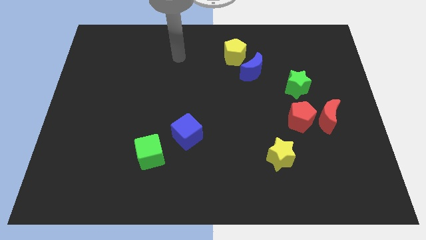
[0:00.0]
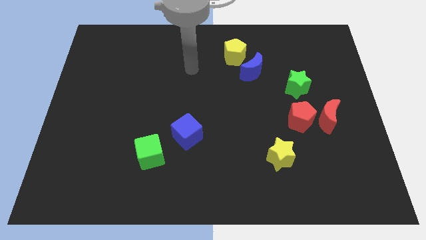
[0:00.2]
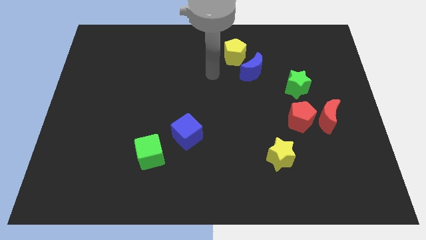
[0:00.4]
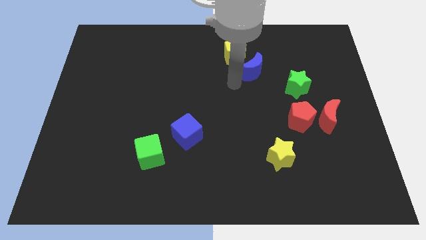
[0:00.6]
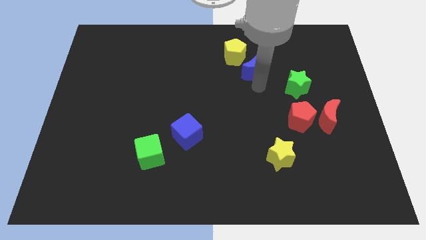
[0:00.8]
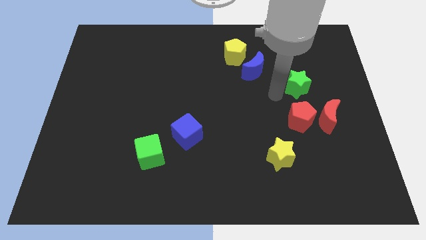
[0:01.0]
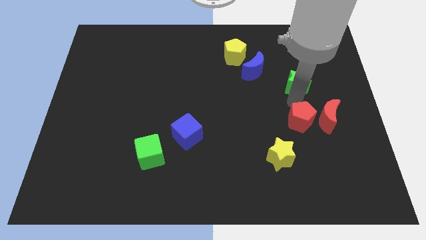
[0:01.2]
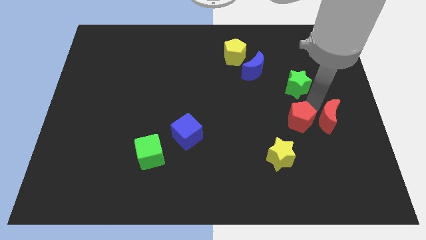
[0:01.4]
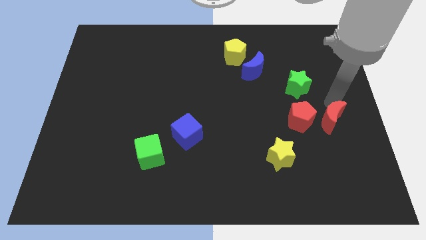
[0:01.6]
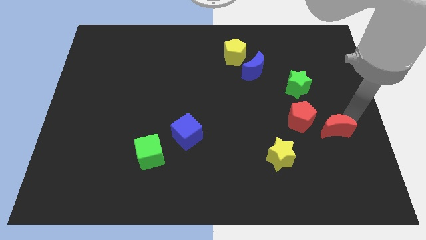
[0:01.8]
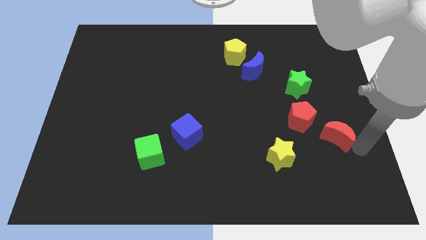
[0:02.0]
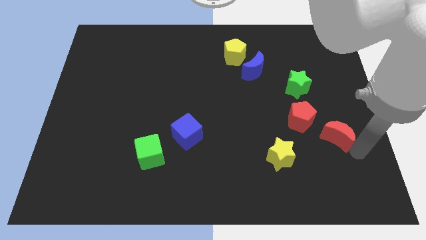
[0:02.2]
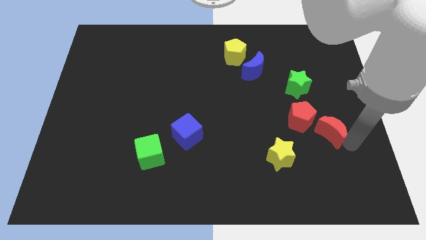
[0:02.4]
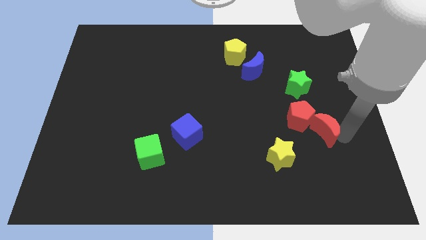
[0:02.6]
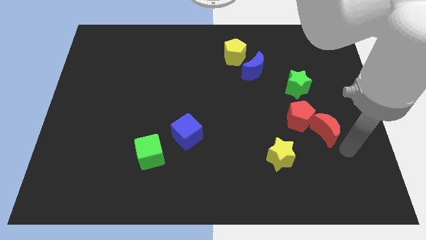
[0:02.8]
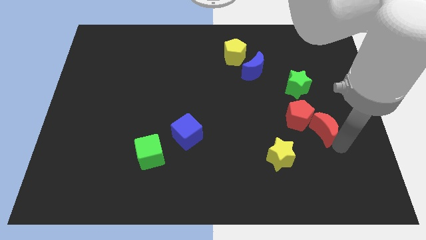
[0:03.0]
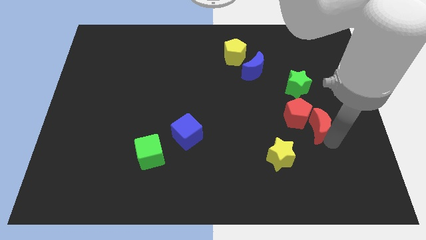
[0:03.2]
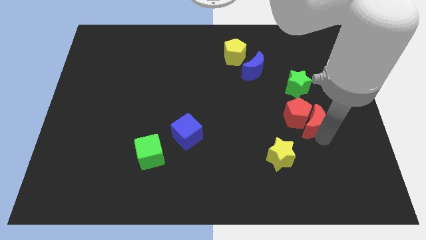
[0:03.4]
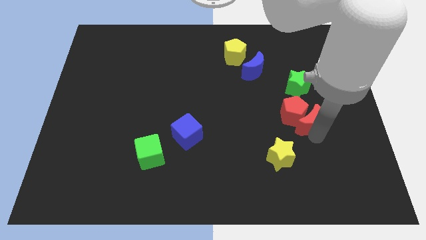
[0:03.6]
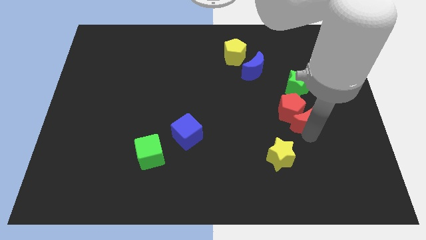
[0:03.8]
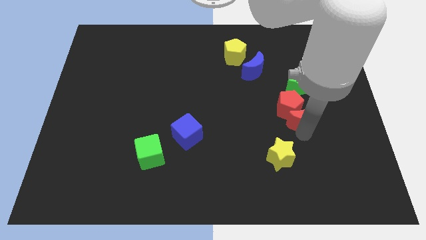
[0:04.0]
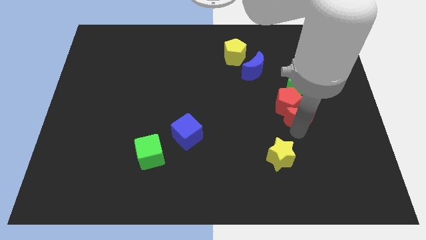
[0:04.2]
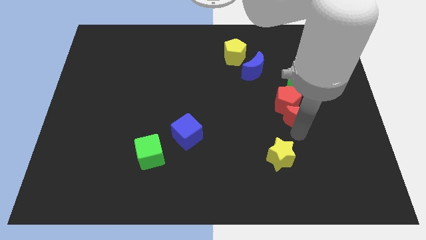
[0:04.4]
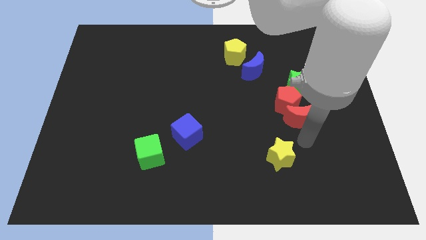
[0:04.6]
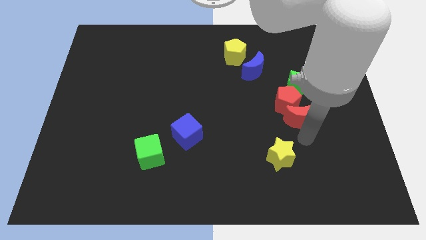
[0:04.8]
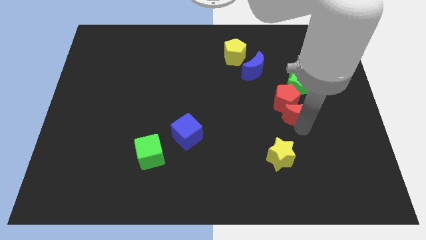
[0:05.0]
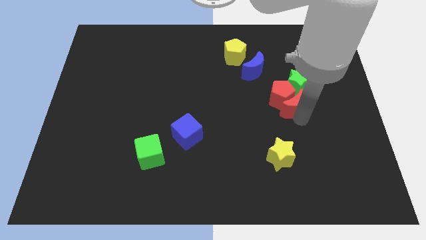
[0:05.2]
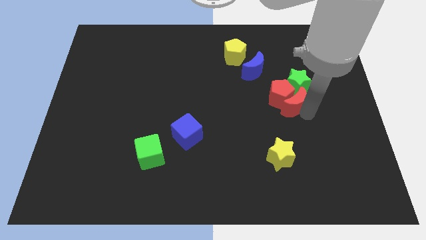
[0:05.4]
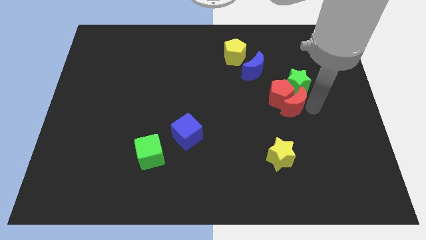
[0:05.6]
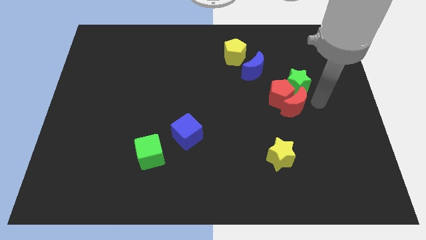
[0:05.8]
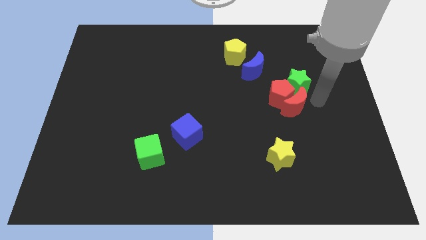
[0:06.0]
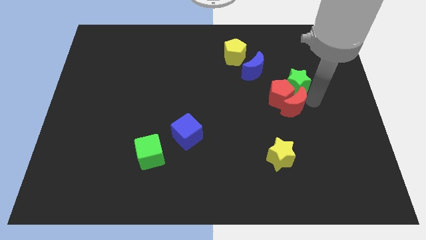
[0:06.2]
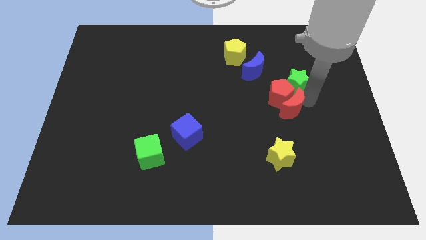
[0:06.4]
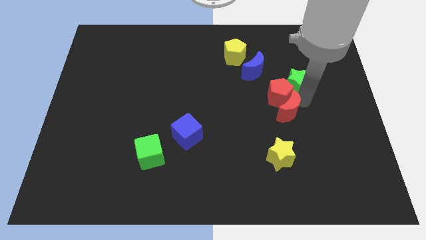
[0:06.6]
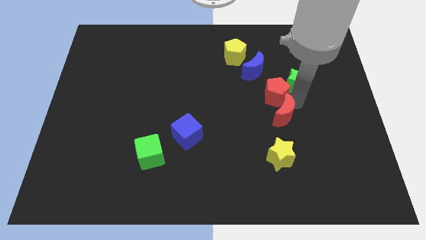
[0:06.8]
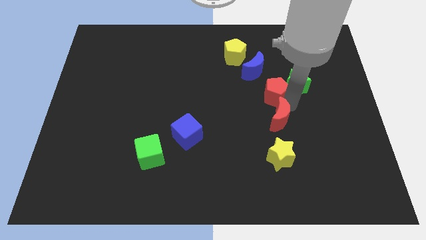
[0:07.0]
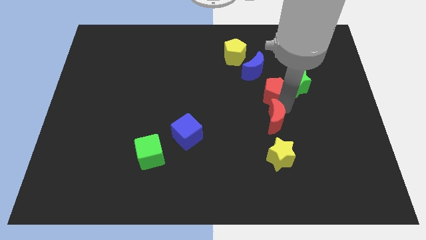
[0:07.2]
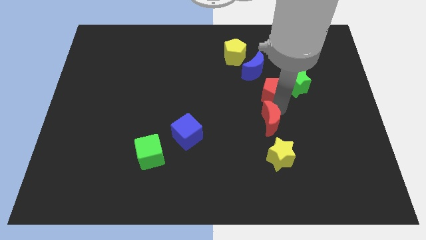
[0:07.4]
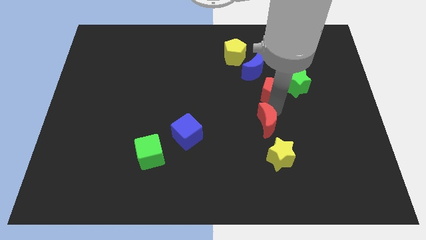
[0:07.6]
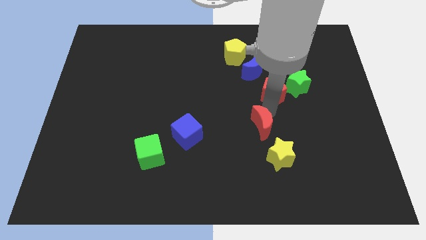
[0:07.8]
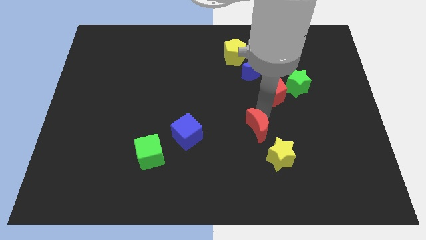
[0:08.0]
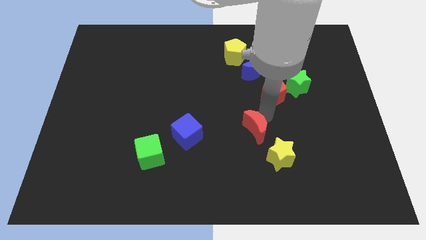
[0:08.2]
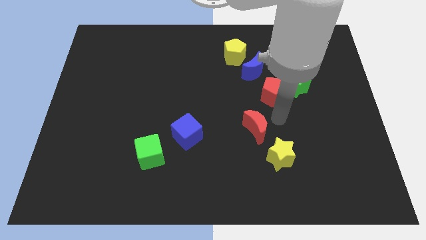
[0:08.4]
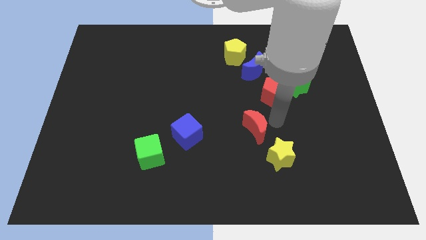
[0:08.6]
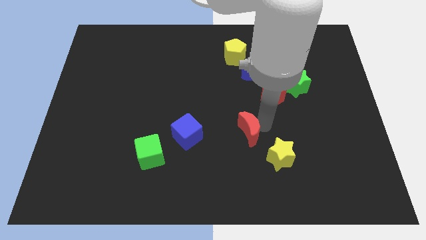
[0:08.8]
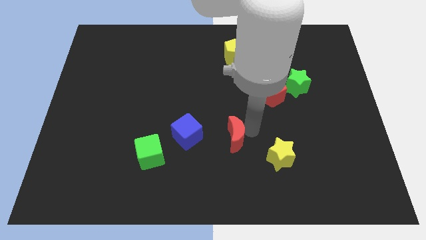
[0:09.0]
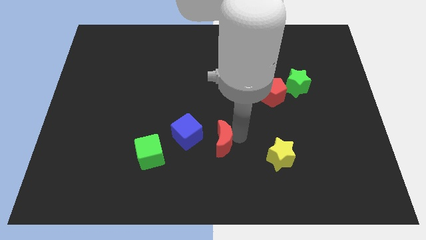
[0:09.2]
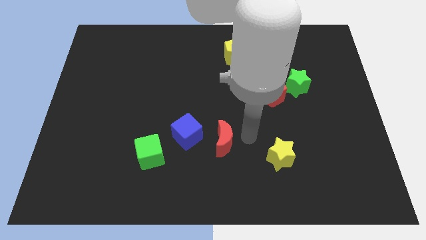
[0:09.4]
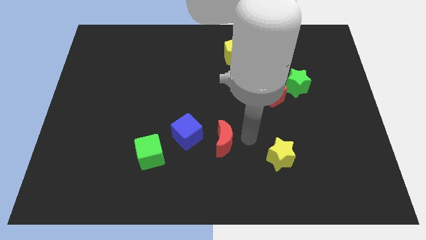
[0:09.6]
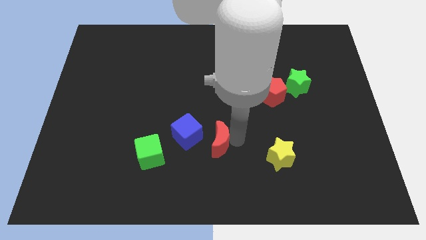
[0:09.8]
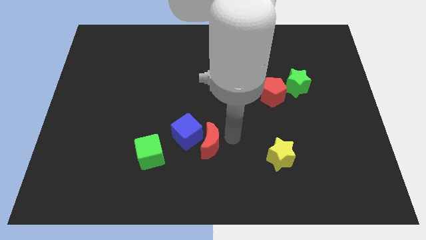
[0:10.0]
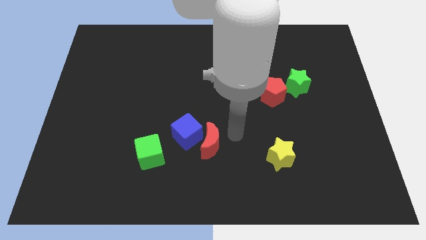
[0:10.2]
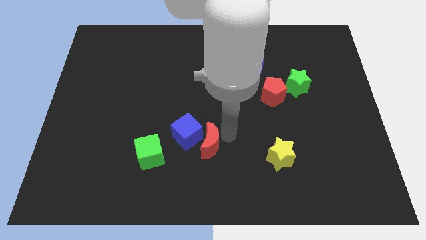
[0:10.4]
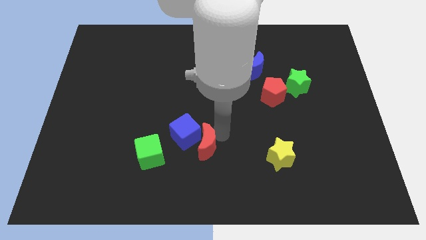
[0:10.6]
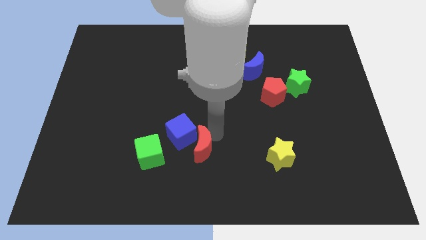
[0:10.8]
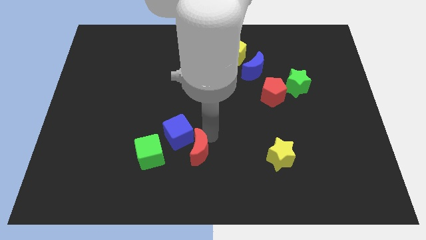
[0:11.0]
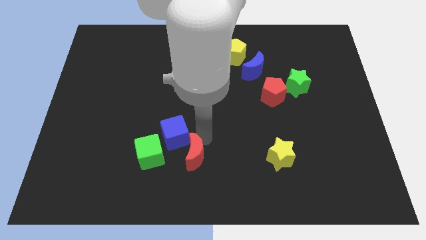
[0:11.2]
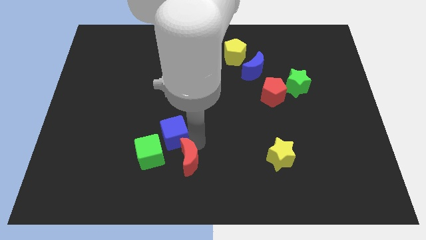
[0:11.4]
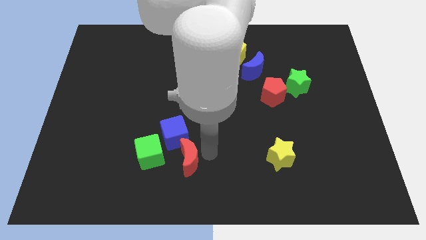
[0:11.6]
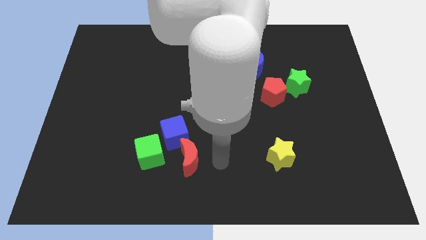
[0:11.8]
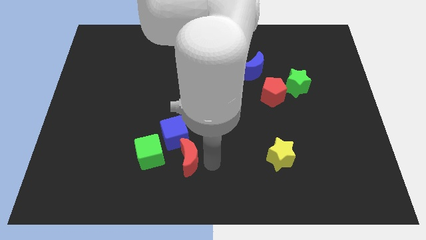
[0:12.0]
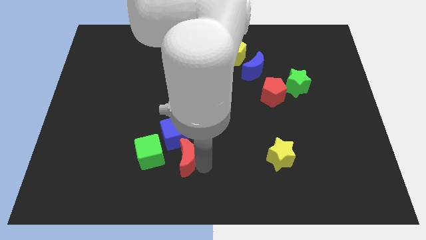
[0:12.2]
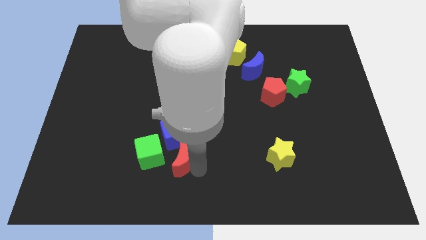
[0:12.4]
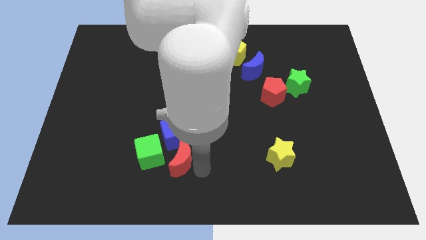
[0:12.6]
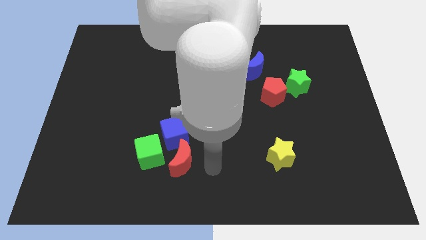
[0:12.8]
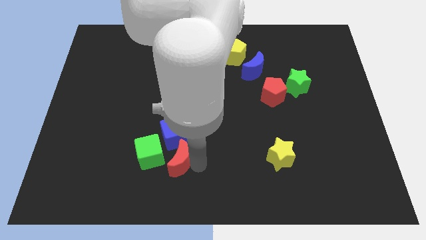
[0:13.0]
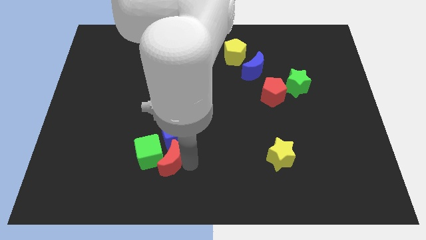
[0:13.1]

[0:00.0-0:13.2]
slide the red moon towards the green cube
